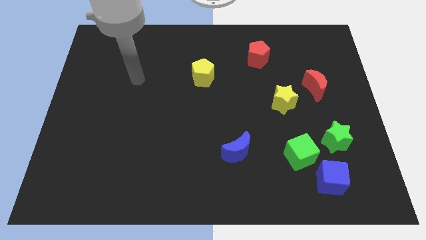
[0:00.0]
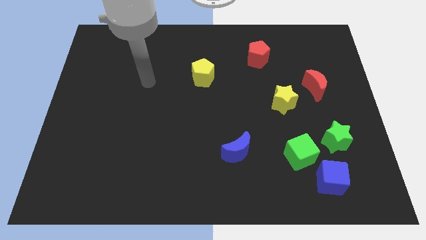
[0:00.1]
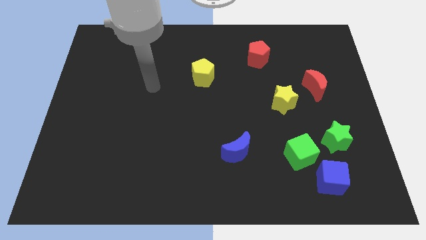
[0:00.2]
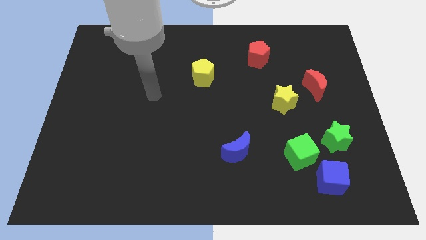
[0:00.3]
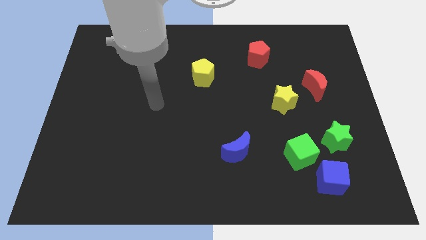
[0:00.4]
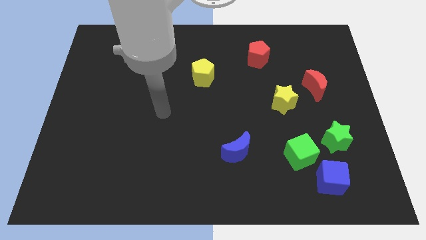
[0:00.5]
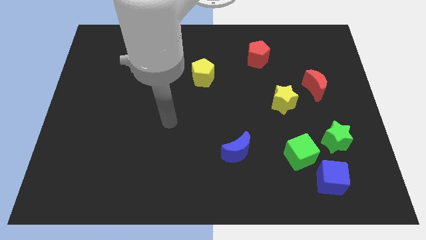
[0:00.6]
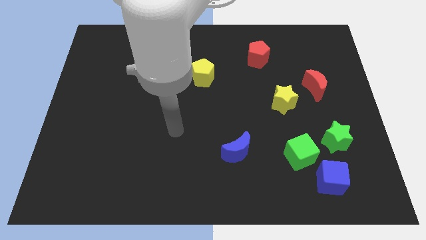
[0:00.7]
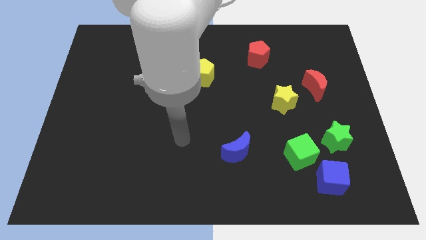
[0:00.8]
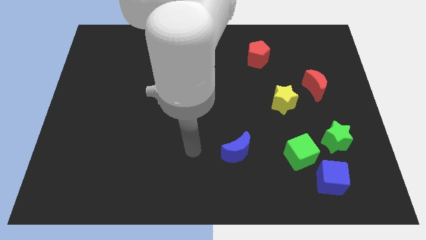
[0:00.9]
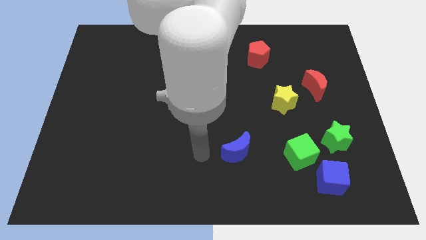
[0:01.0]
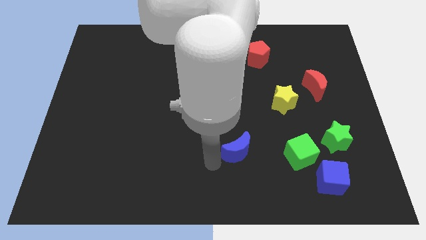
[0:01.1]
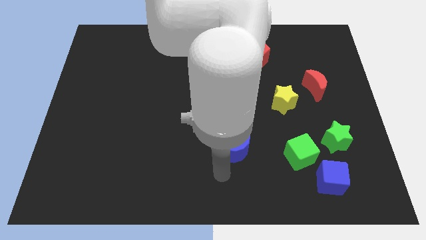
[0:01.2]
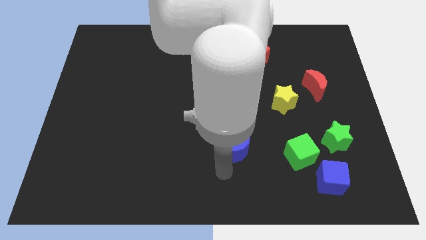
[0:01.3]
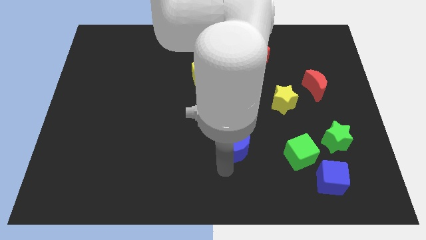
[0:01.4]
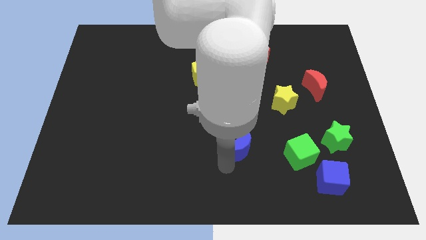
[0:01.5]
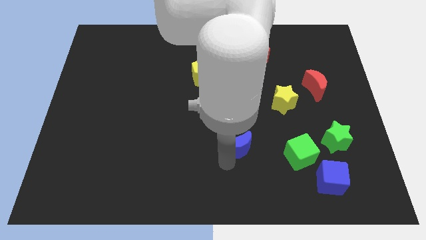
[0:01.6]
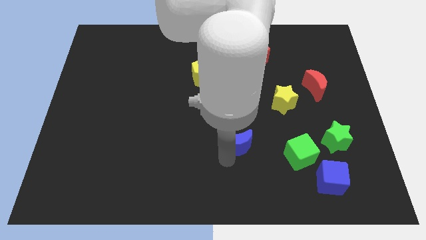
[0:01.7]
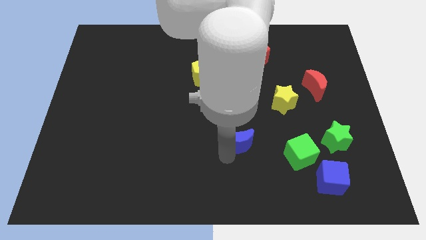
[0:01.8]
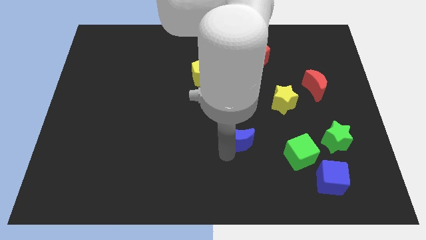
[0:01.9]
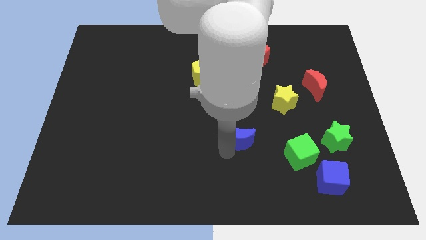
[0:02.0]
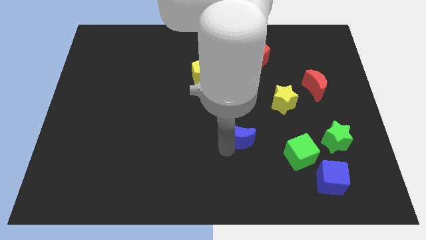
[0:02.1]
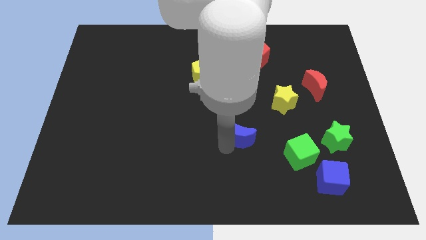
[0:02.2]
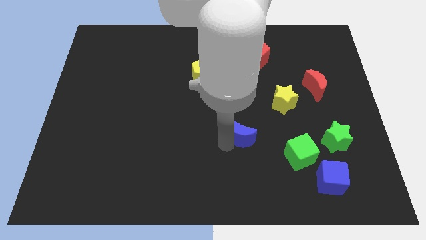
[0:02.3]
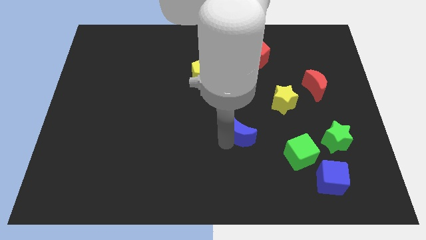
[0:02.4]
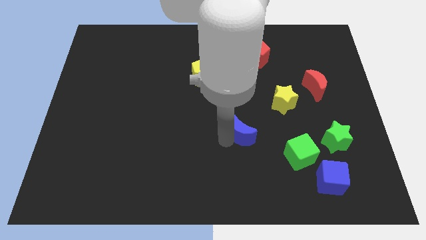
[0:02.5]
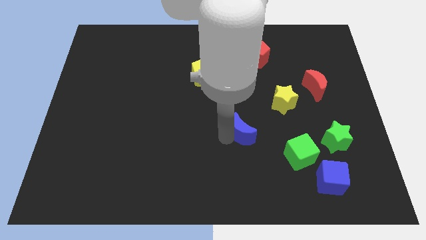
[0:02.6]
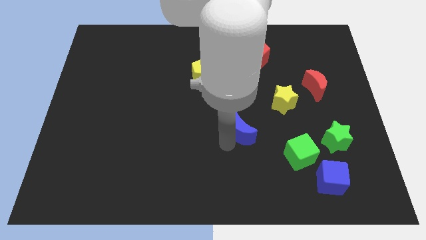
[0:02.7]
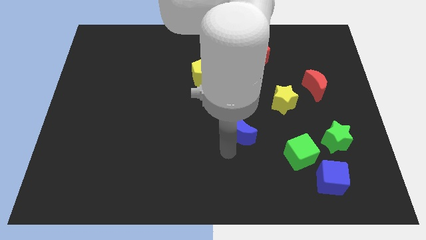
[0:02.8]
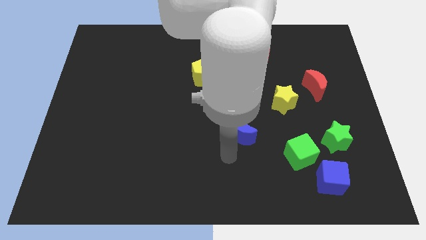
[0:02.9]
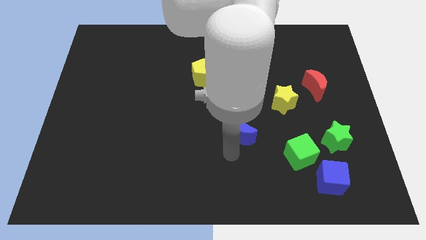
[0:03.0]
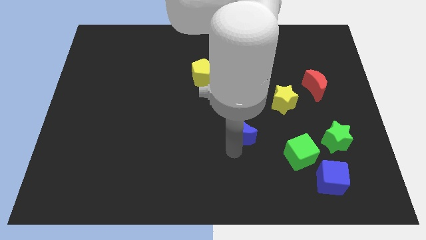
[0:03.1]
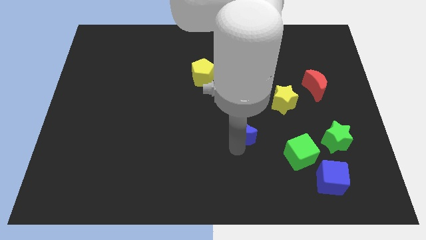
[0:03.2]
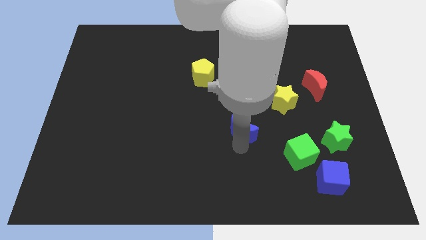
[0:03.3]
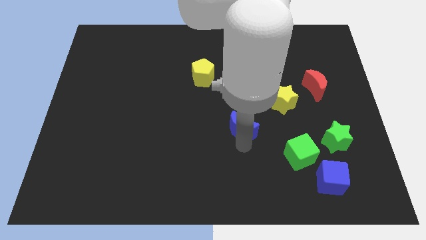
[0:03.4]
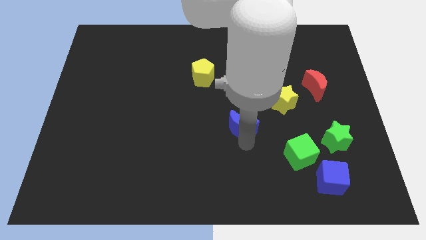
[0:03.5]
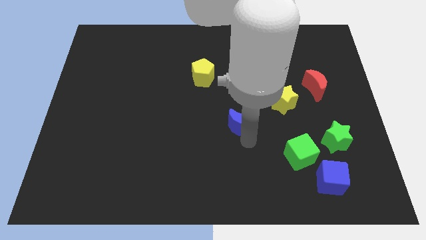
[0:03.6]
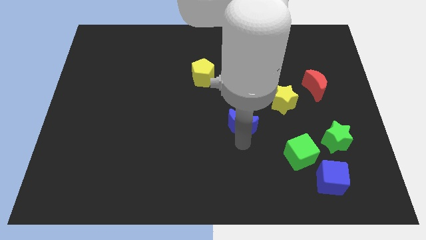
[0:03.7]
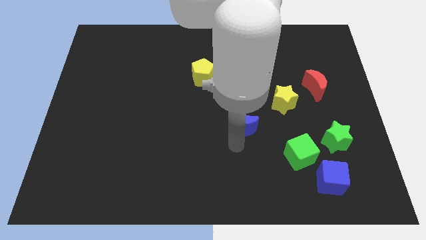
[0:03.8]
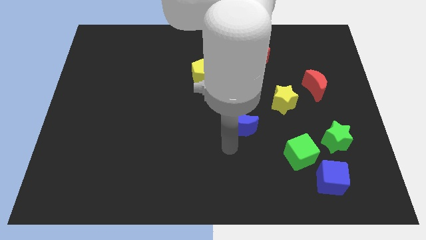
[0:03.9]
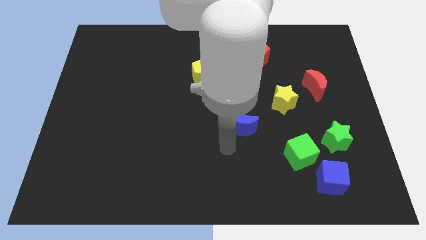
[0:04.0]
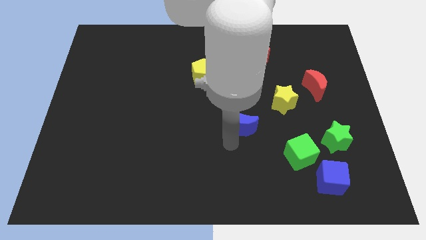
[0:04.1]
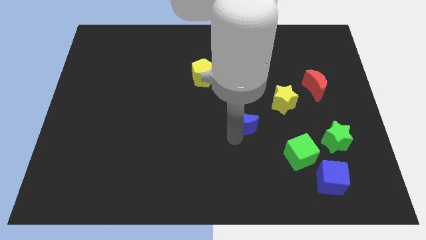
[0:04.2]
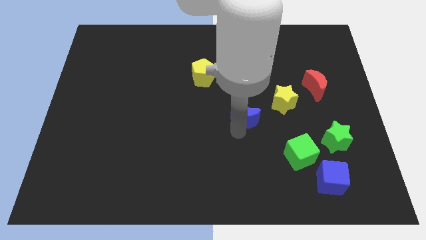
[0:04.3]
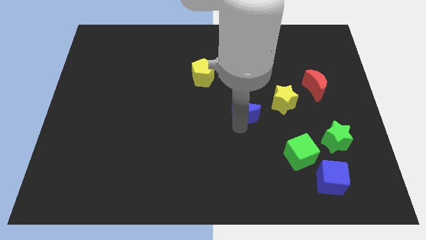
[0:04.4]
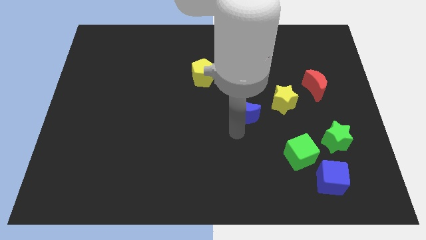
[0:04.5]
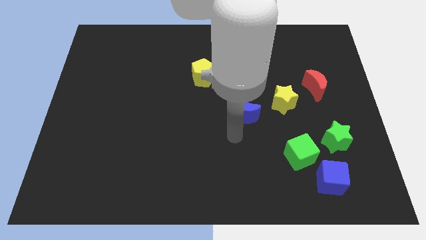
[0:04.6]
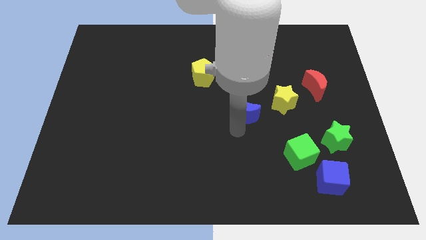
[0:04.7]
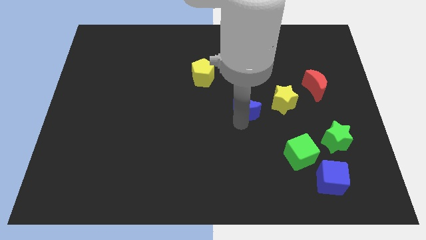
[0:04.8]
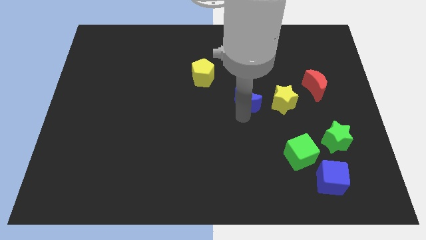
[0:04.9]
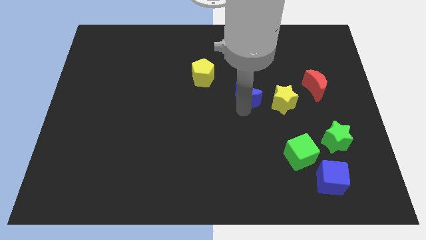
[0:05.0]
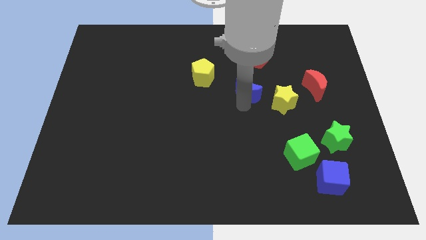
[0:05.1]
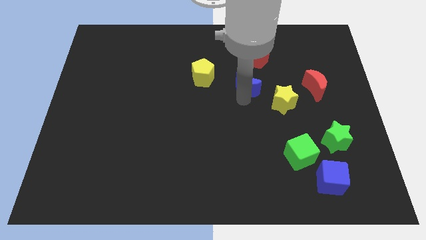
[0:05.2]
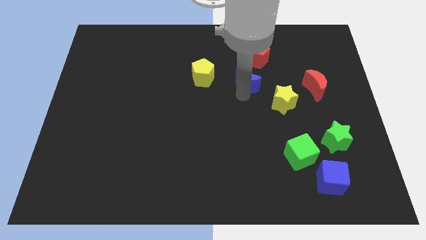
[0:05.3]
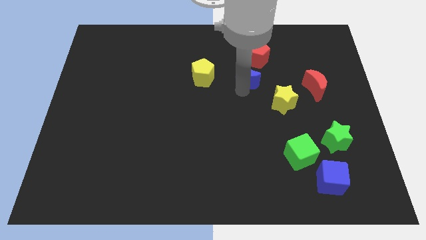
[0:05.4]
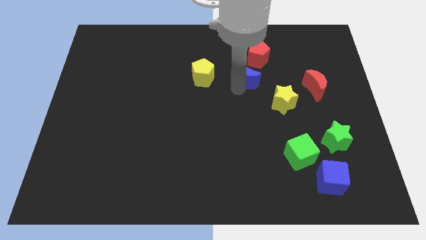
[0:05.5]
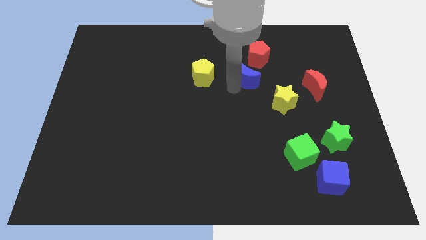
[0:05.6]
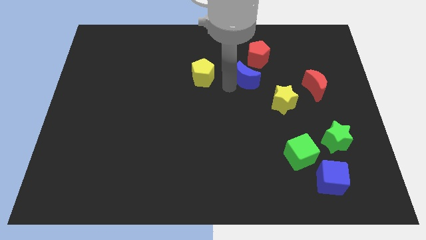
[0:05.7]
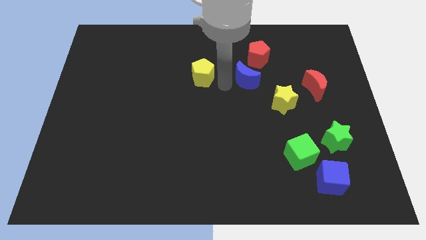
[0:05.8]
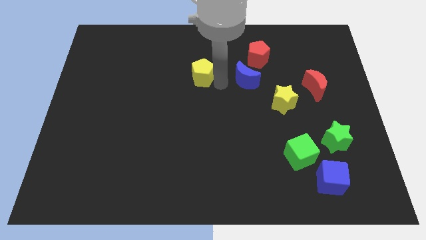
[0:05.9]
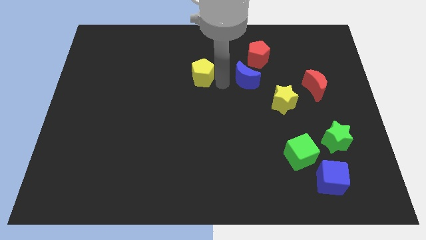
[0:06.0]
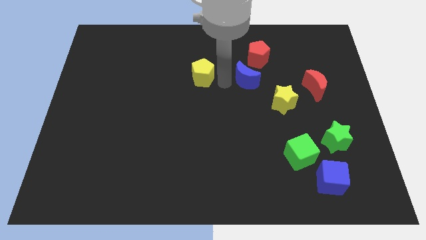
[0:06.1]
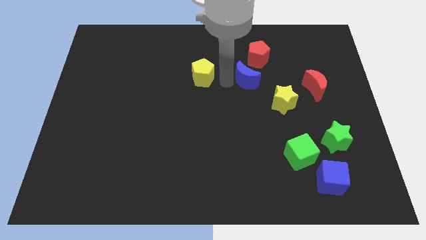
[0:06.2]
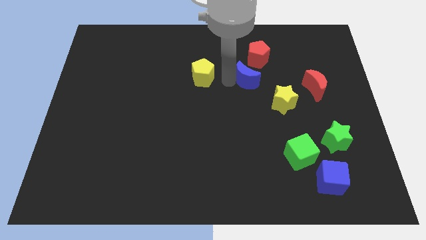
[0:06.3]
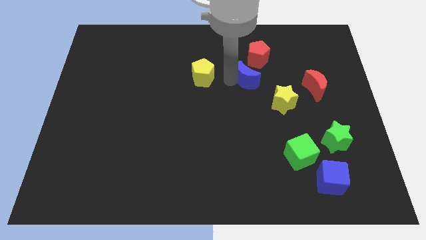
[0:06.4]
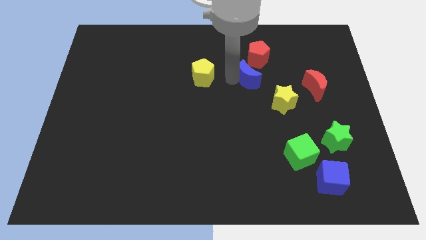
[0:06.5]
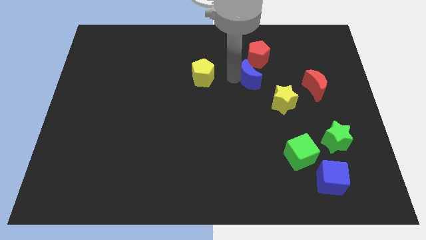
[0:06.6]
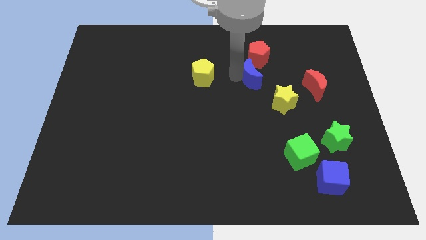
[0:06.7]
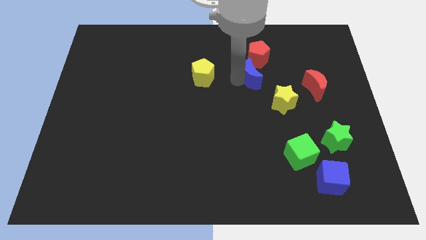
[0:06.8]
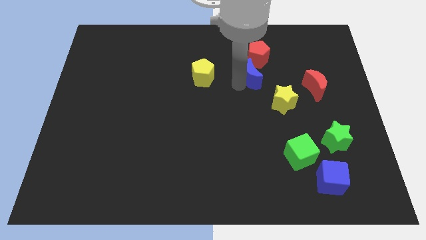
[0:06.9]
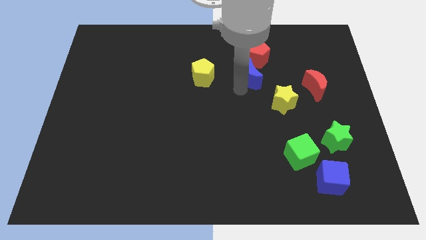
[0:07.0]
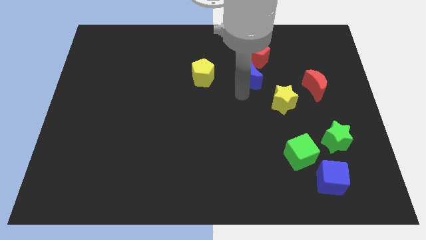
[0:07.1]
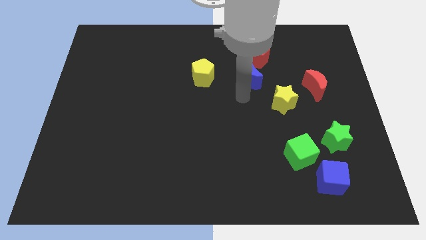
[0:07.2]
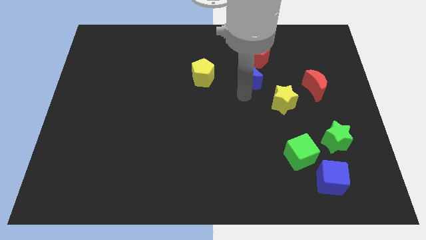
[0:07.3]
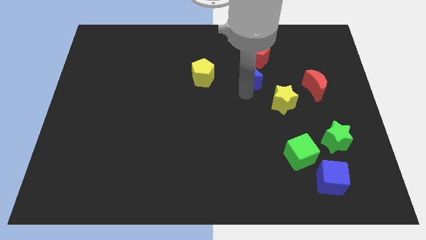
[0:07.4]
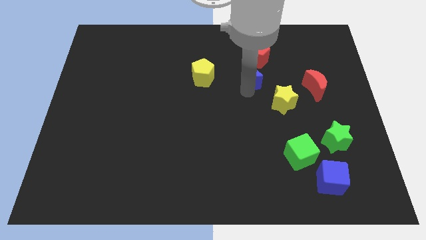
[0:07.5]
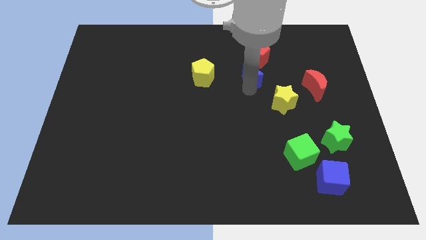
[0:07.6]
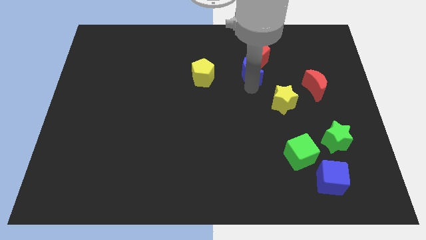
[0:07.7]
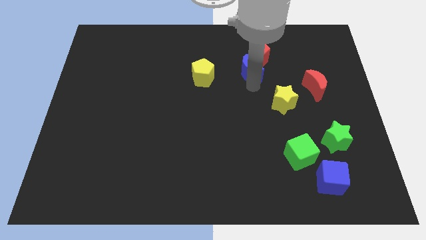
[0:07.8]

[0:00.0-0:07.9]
move the blue moon towards the red pentagon
